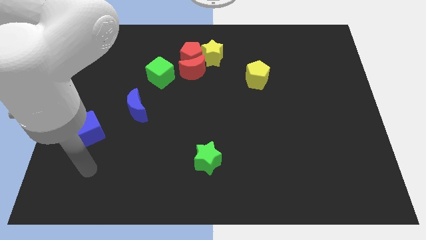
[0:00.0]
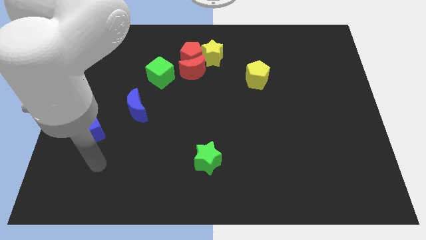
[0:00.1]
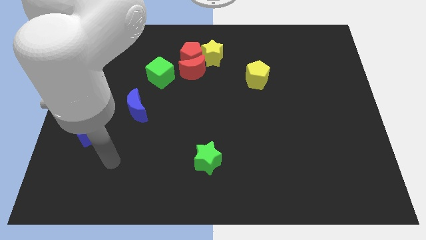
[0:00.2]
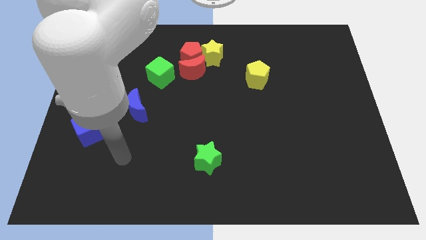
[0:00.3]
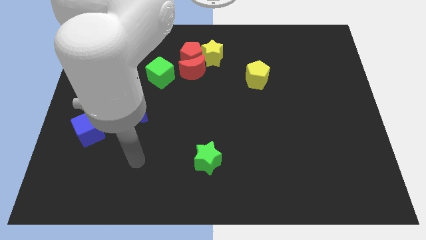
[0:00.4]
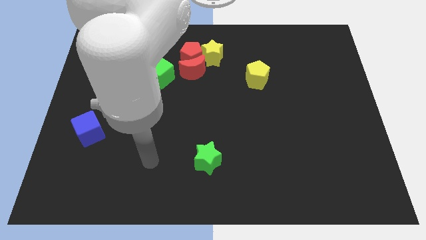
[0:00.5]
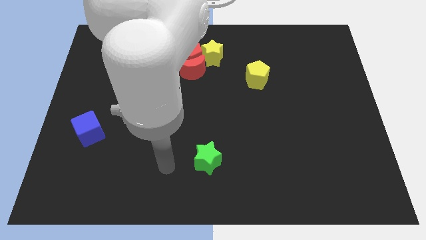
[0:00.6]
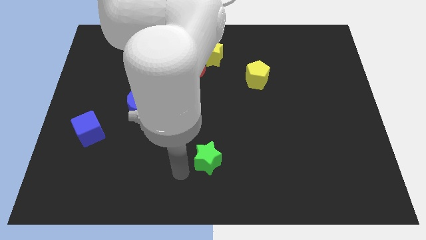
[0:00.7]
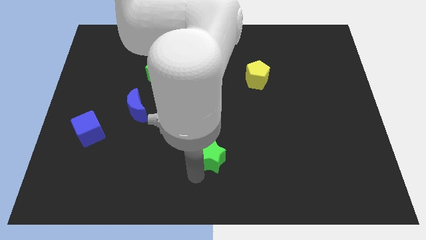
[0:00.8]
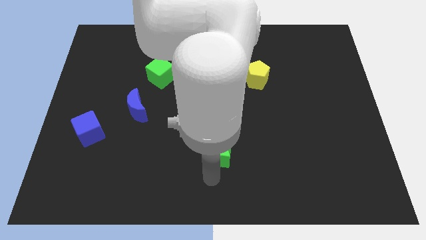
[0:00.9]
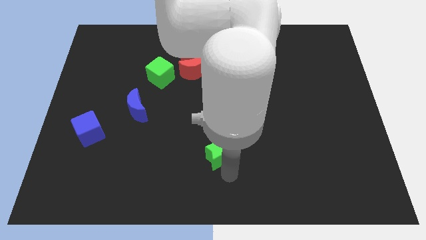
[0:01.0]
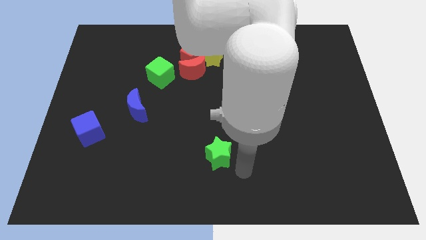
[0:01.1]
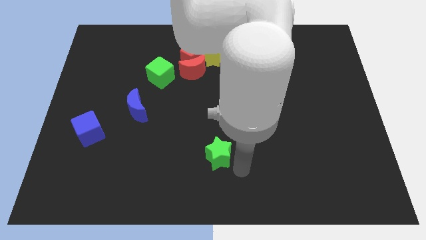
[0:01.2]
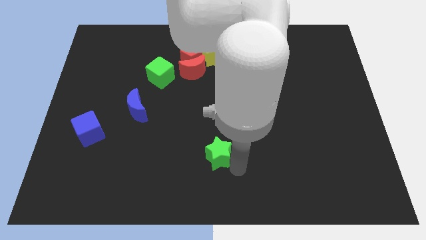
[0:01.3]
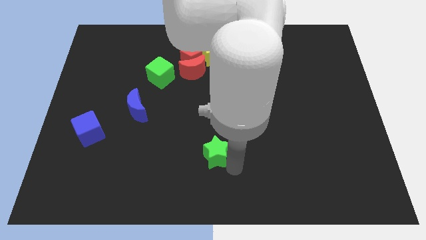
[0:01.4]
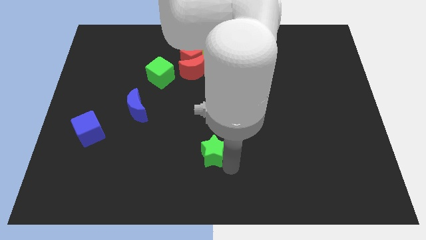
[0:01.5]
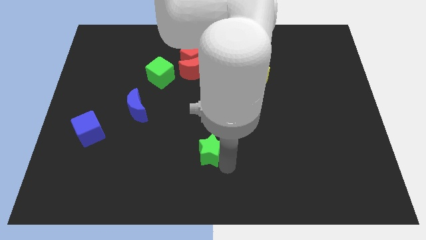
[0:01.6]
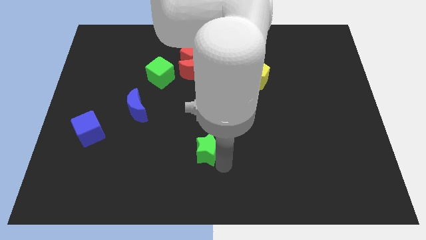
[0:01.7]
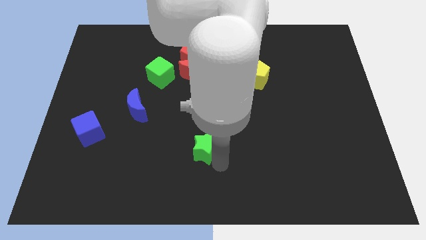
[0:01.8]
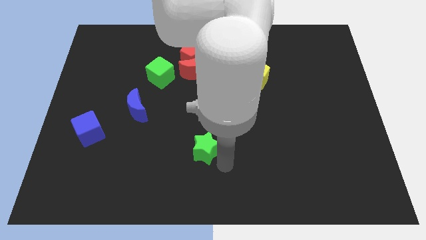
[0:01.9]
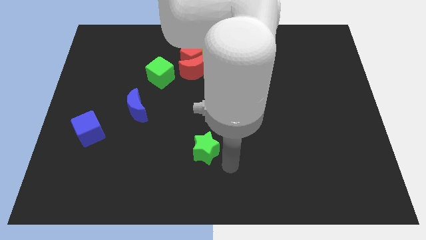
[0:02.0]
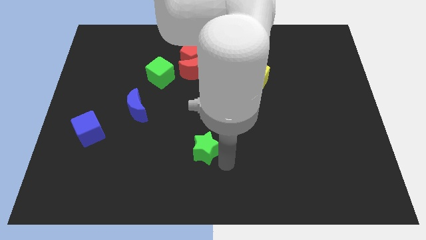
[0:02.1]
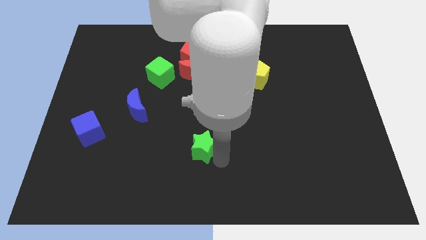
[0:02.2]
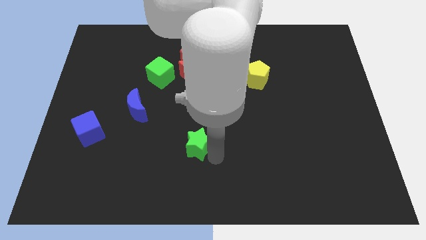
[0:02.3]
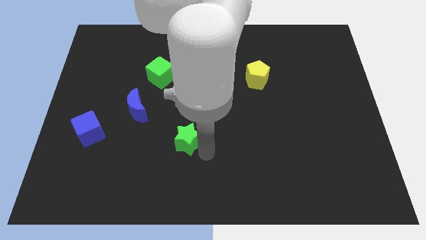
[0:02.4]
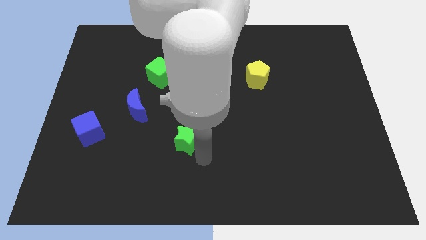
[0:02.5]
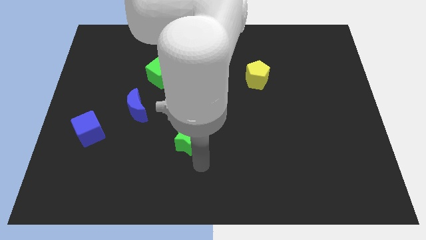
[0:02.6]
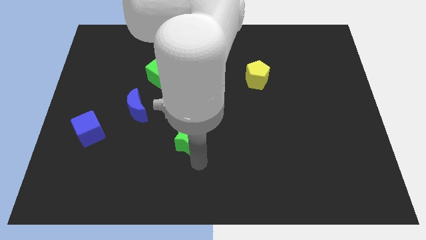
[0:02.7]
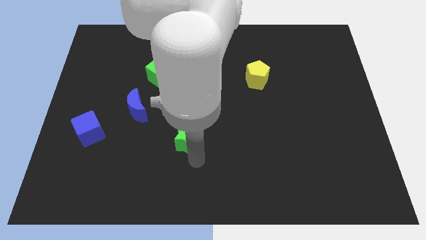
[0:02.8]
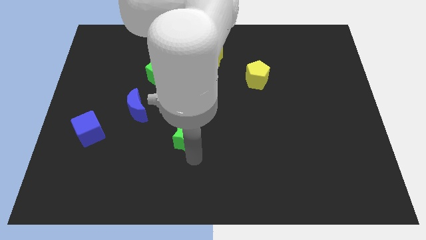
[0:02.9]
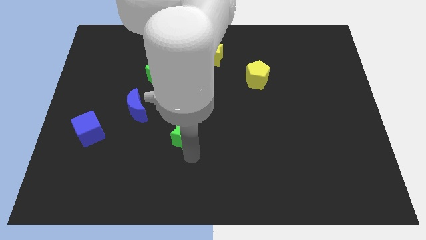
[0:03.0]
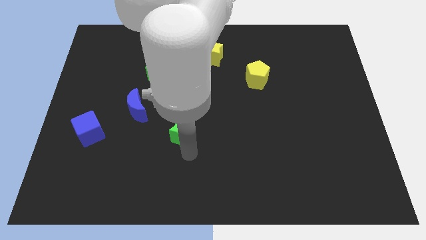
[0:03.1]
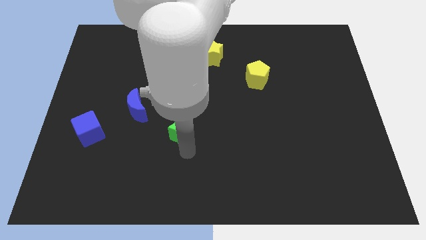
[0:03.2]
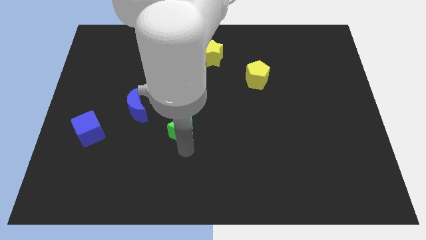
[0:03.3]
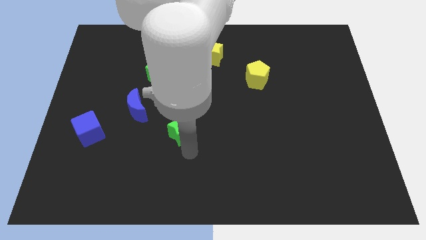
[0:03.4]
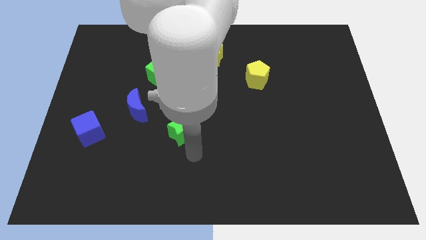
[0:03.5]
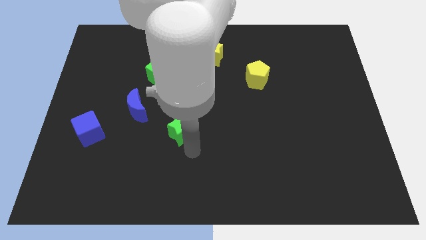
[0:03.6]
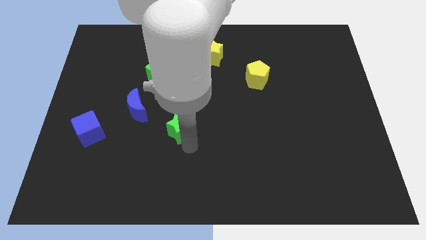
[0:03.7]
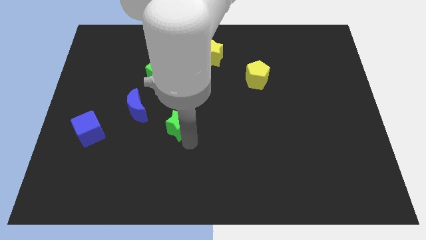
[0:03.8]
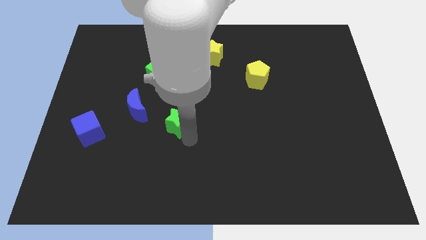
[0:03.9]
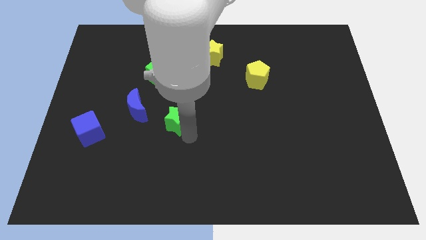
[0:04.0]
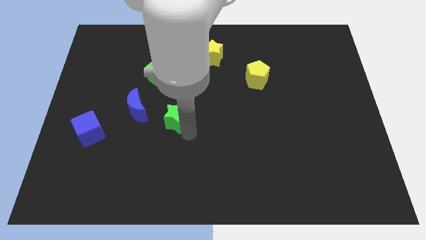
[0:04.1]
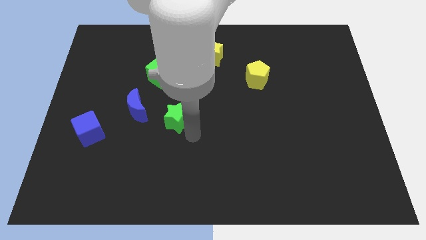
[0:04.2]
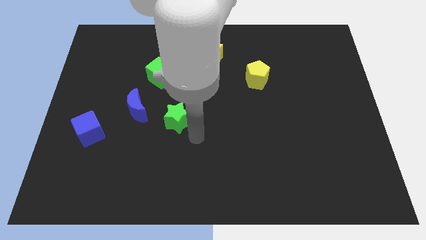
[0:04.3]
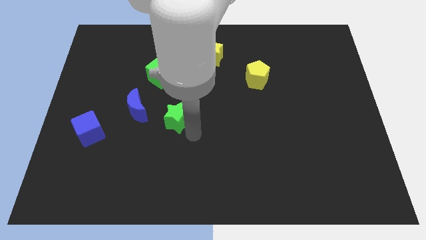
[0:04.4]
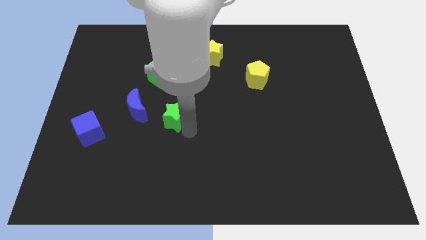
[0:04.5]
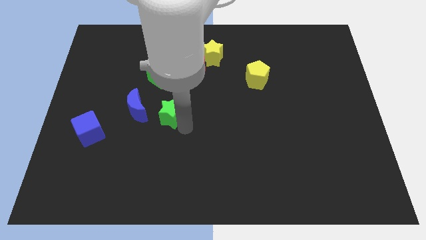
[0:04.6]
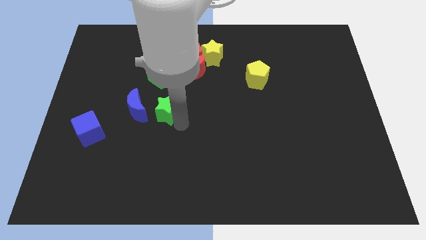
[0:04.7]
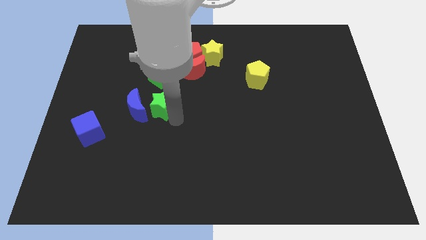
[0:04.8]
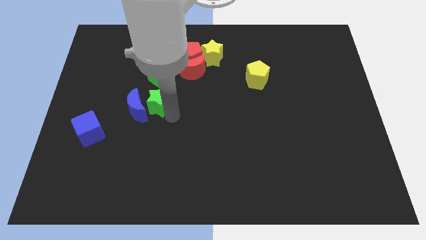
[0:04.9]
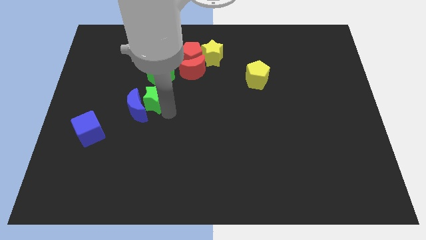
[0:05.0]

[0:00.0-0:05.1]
slide the green star upwards and then left

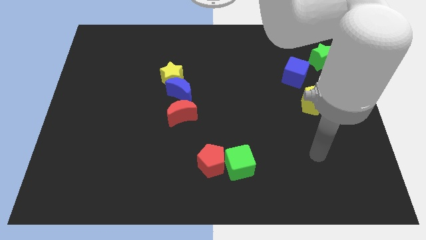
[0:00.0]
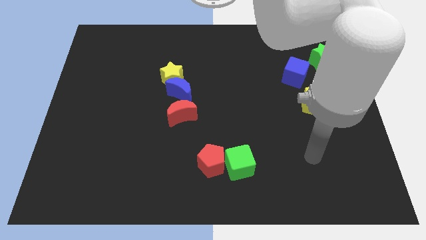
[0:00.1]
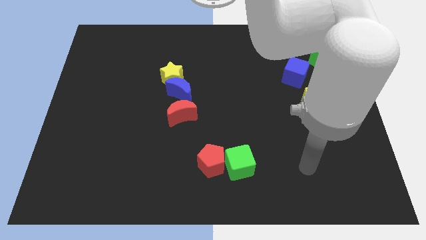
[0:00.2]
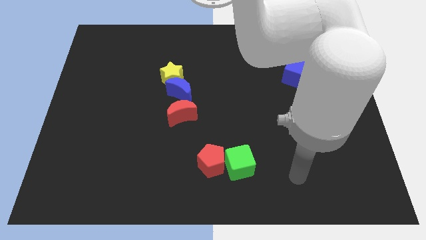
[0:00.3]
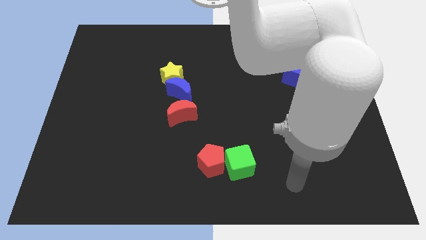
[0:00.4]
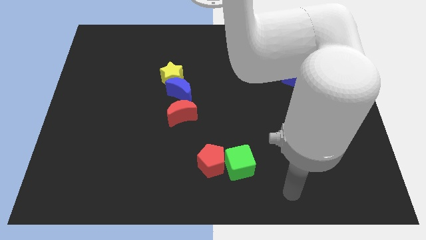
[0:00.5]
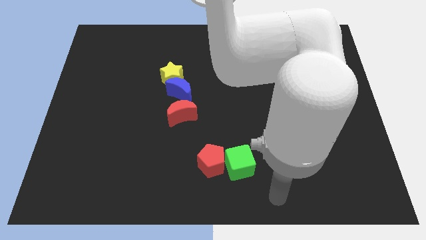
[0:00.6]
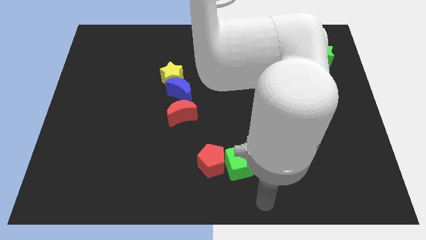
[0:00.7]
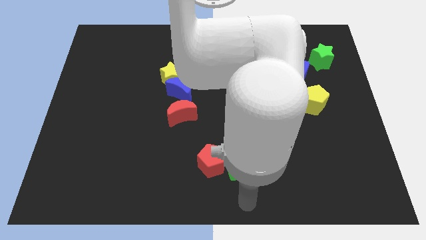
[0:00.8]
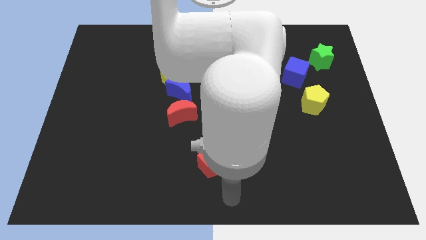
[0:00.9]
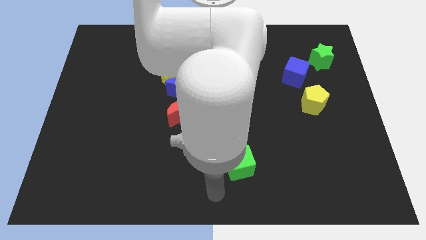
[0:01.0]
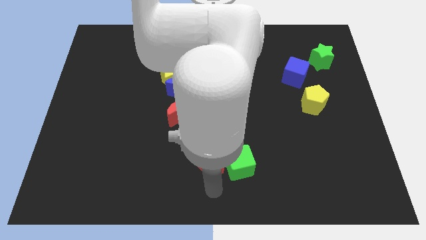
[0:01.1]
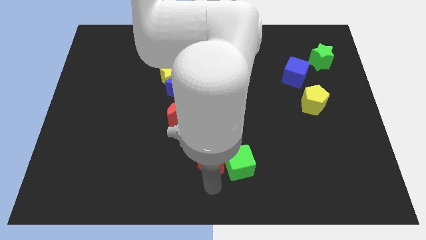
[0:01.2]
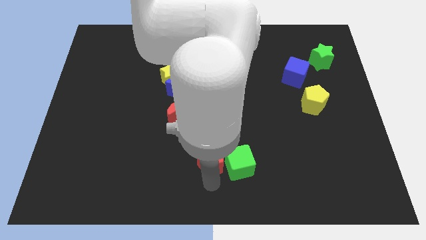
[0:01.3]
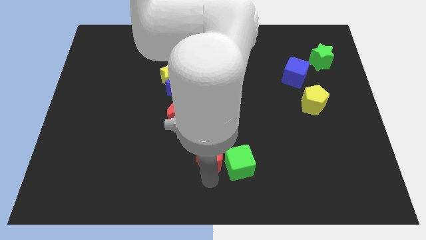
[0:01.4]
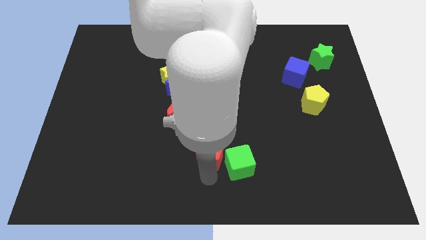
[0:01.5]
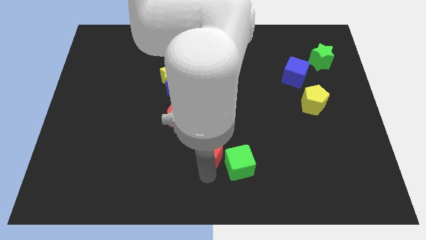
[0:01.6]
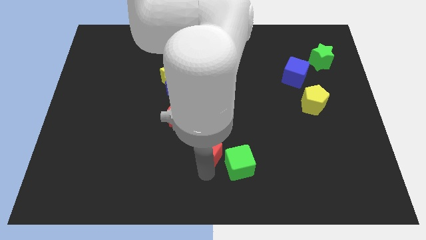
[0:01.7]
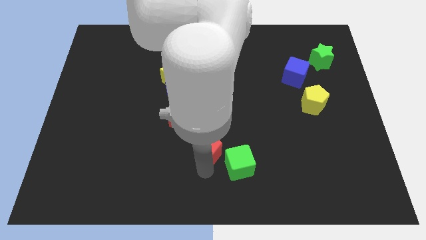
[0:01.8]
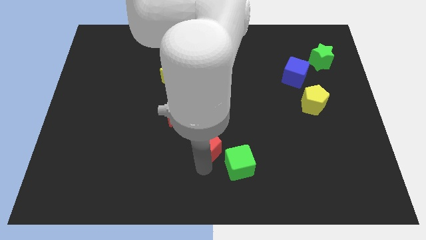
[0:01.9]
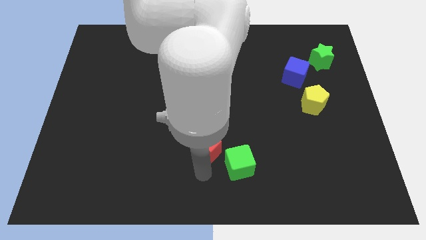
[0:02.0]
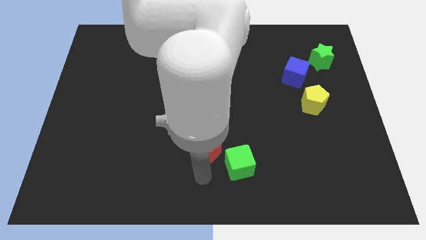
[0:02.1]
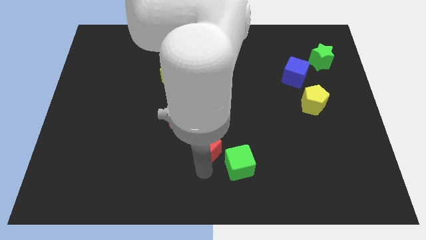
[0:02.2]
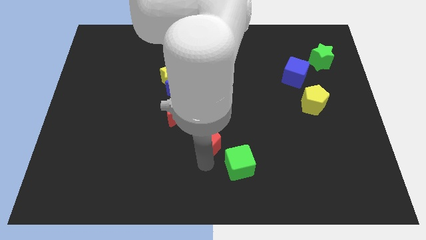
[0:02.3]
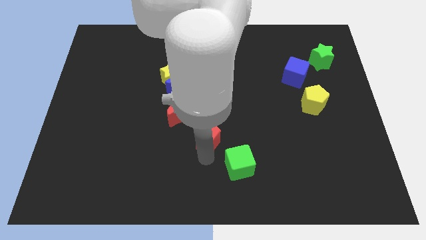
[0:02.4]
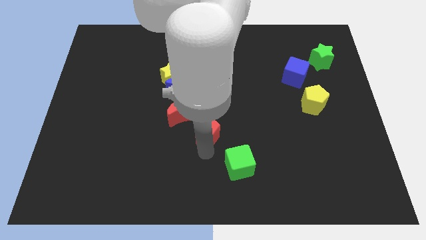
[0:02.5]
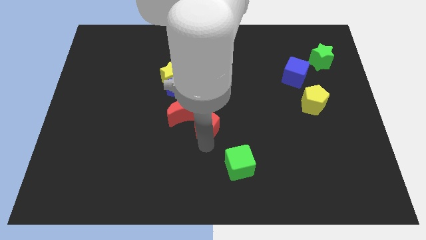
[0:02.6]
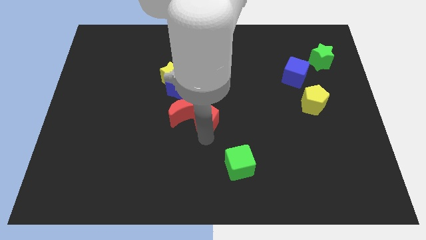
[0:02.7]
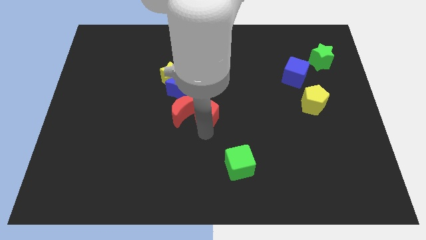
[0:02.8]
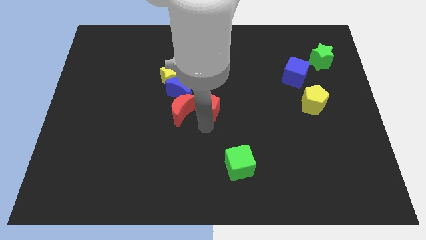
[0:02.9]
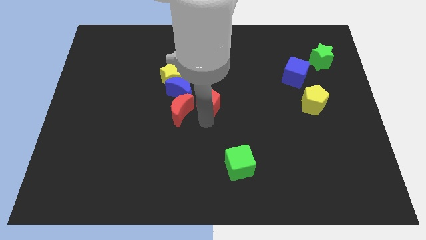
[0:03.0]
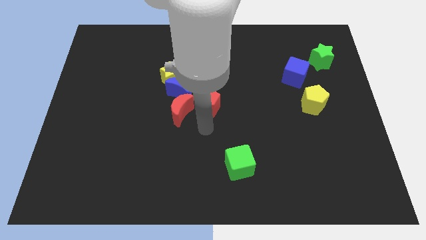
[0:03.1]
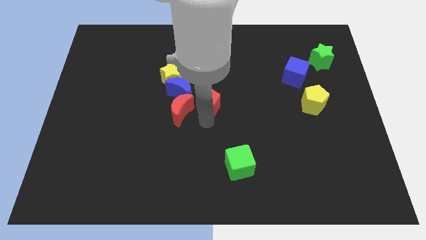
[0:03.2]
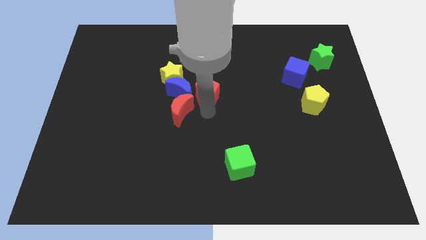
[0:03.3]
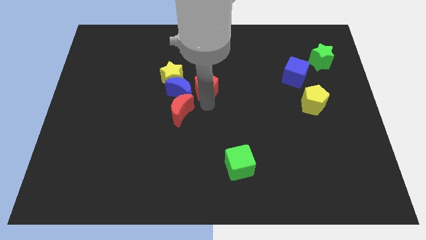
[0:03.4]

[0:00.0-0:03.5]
push the red pentagon upwards
